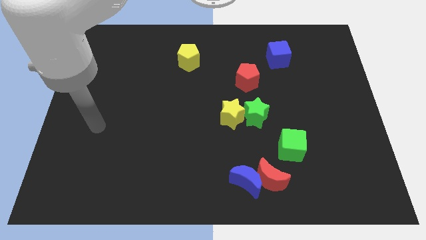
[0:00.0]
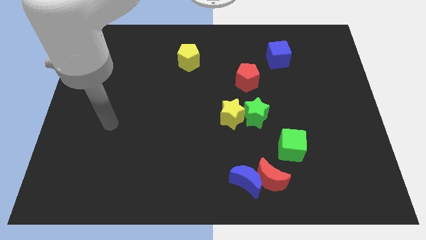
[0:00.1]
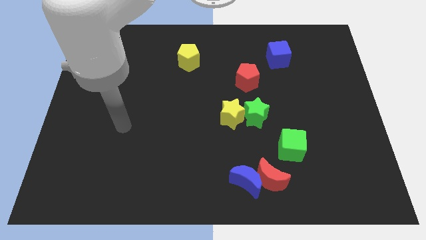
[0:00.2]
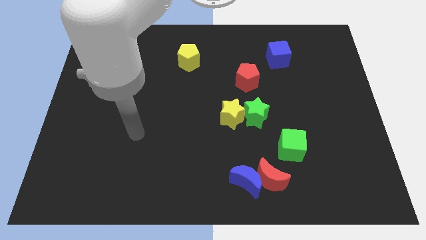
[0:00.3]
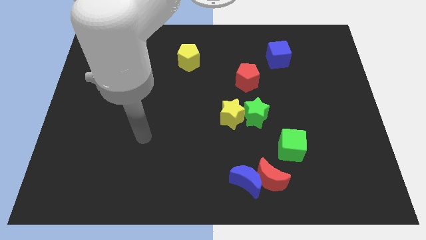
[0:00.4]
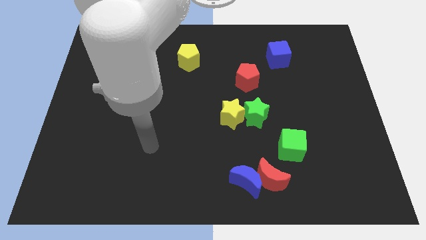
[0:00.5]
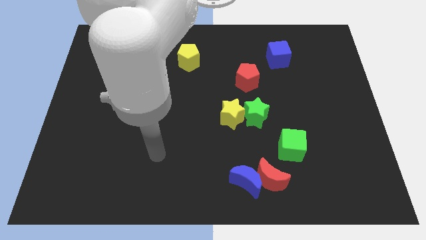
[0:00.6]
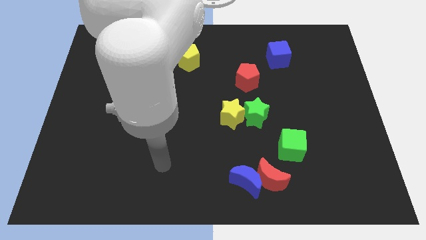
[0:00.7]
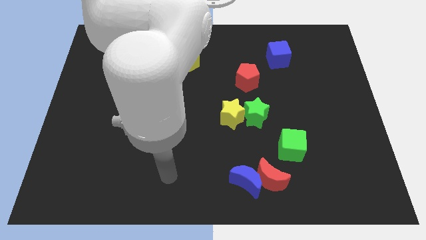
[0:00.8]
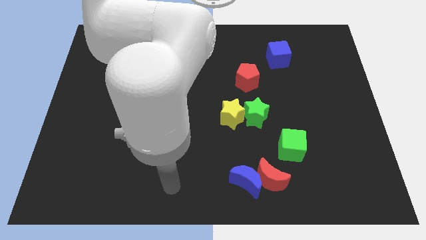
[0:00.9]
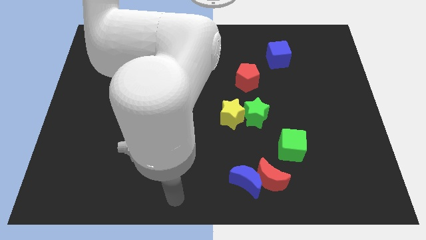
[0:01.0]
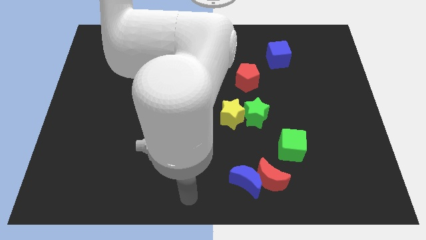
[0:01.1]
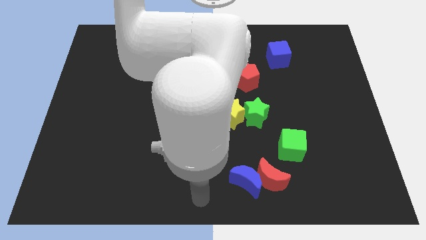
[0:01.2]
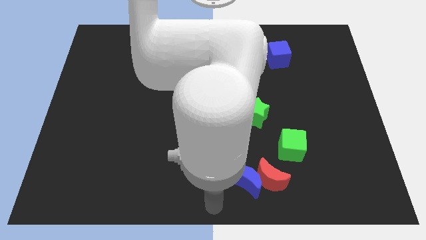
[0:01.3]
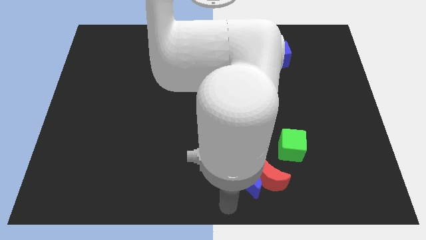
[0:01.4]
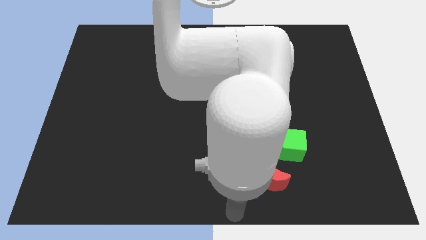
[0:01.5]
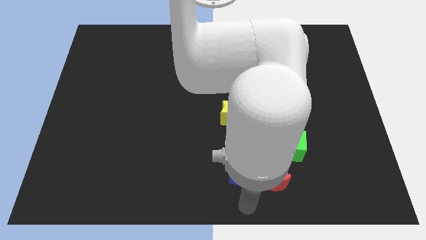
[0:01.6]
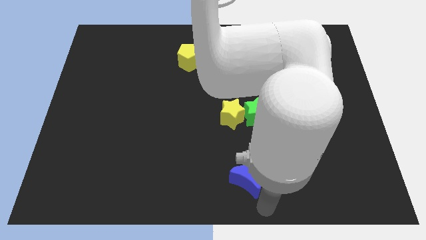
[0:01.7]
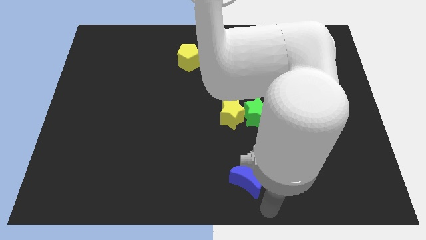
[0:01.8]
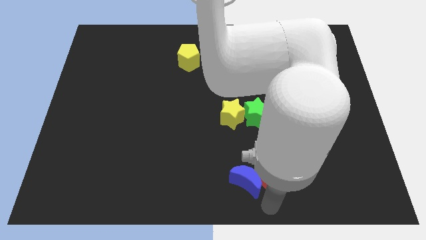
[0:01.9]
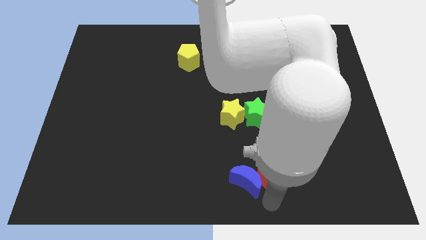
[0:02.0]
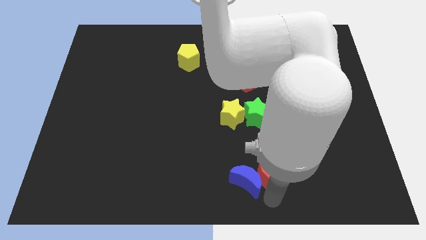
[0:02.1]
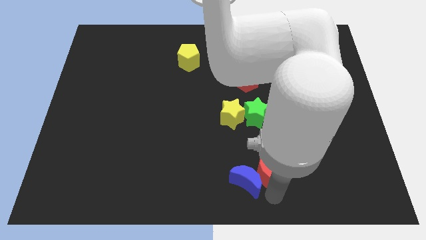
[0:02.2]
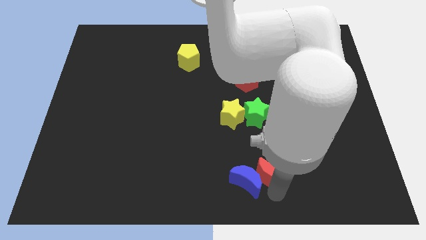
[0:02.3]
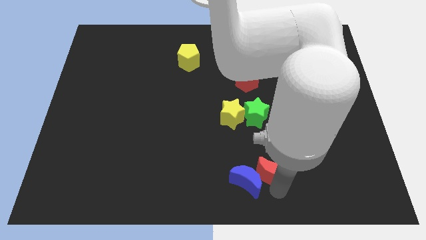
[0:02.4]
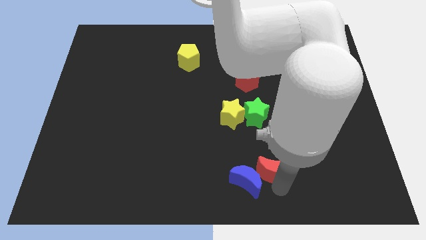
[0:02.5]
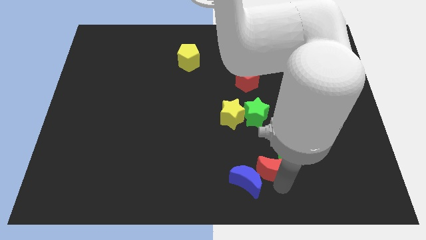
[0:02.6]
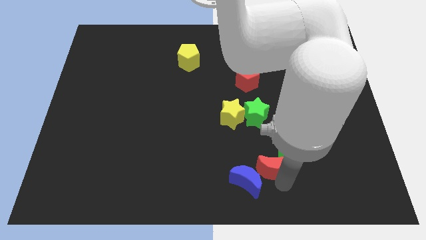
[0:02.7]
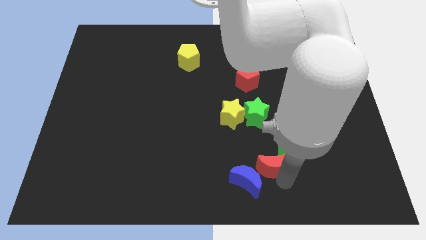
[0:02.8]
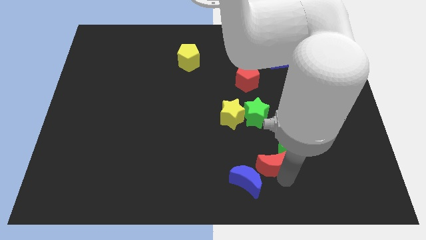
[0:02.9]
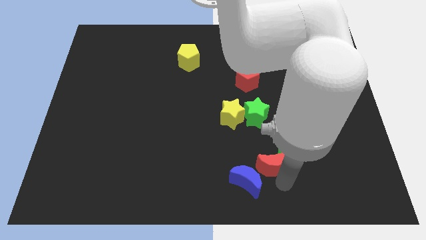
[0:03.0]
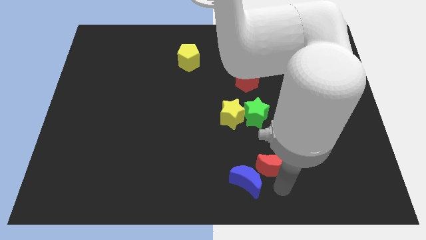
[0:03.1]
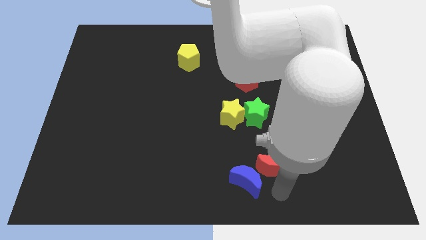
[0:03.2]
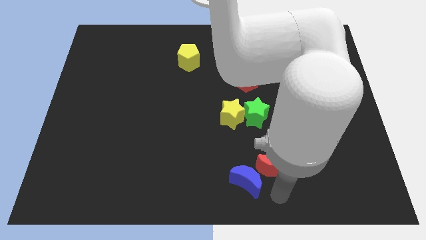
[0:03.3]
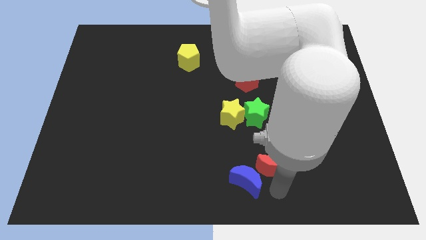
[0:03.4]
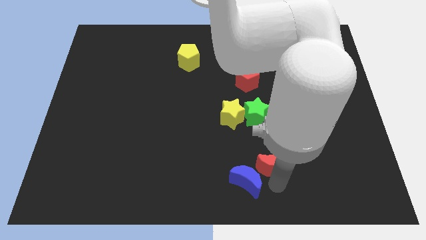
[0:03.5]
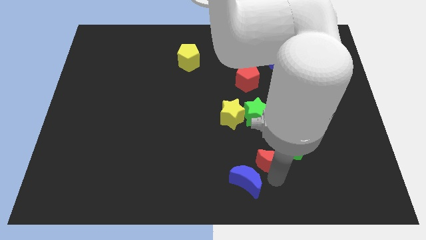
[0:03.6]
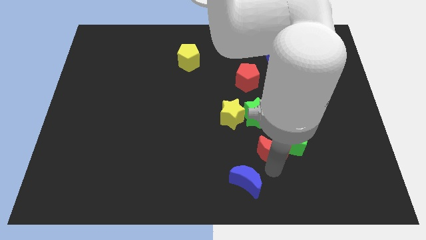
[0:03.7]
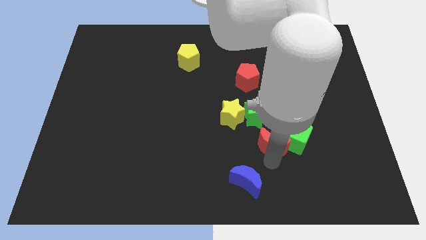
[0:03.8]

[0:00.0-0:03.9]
push the red moon slightly up

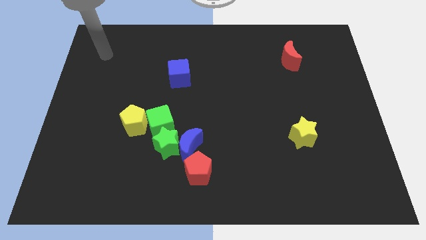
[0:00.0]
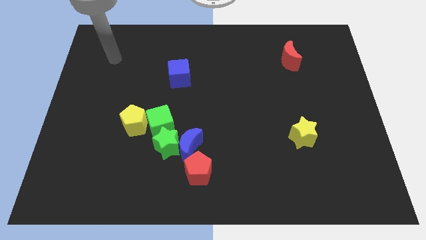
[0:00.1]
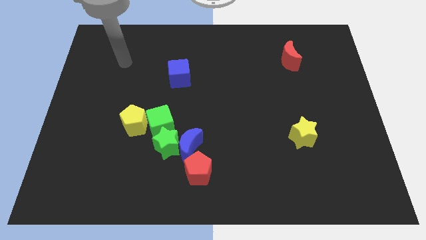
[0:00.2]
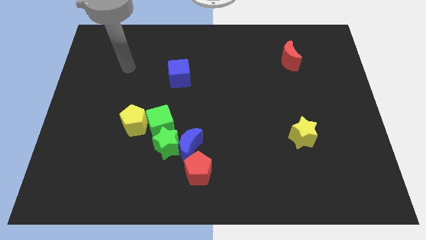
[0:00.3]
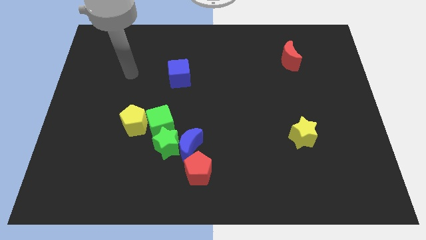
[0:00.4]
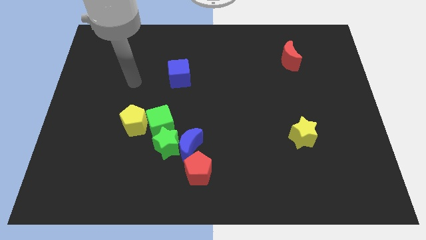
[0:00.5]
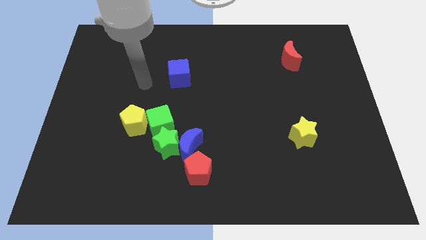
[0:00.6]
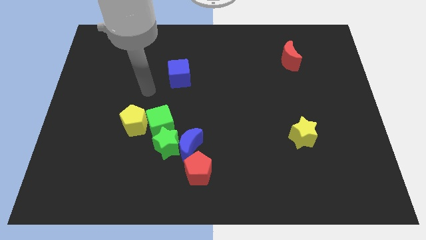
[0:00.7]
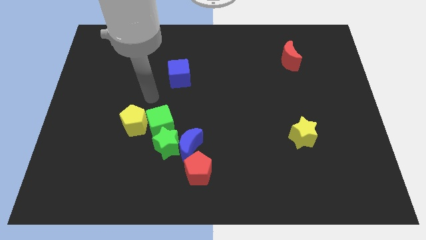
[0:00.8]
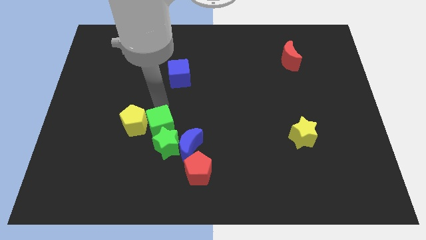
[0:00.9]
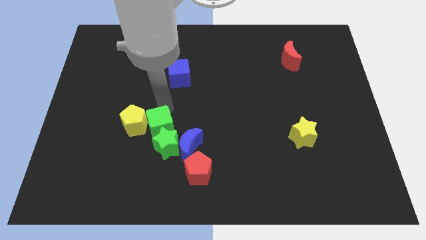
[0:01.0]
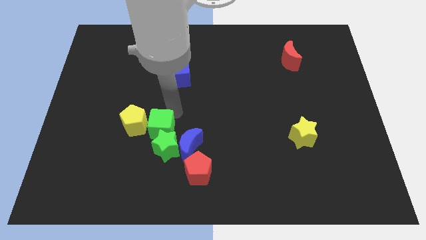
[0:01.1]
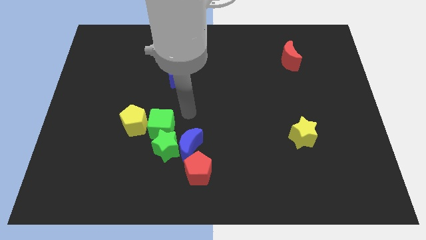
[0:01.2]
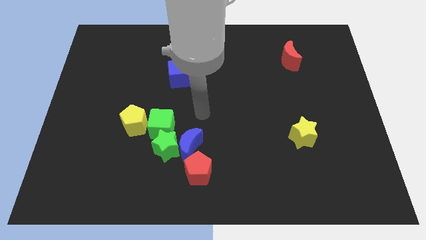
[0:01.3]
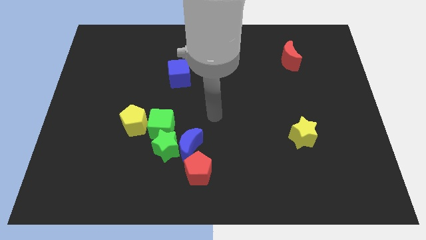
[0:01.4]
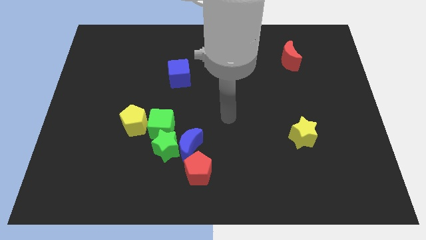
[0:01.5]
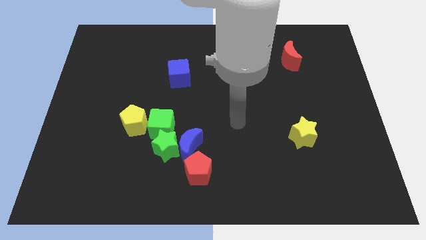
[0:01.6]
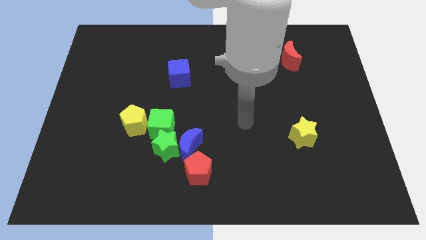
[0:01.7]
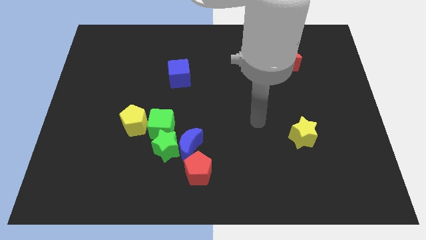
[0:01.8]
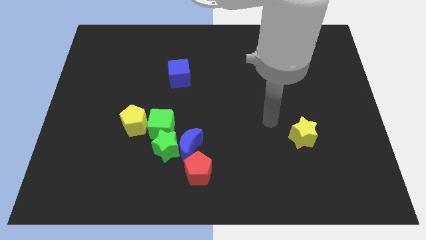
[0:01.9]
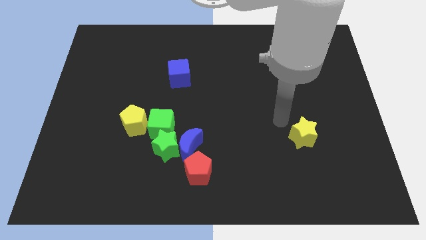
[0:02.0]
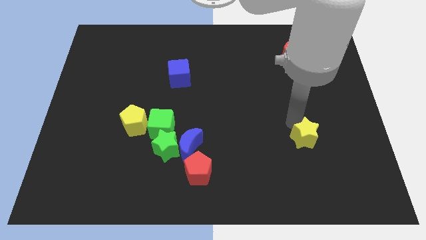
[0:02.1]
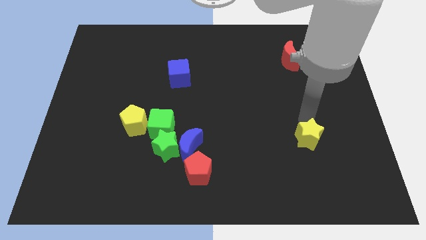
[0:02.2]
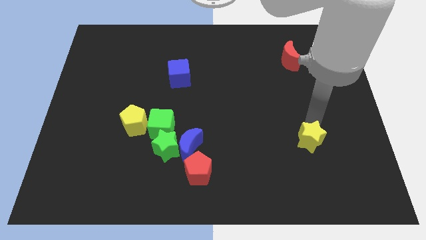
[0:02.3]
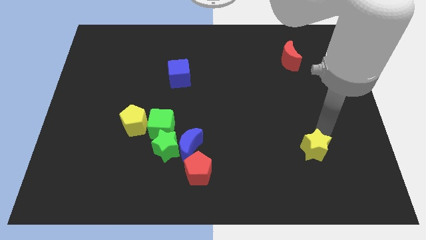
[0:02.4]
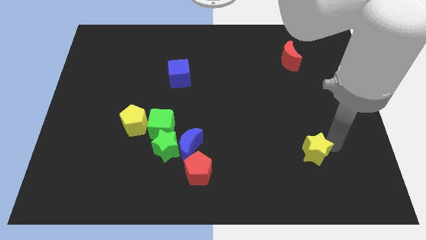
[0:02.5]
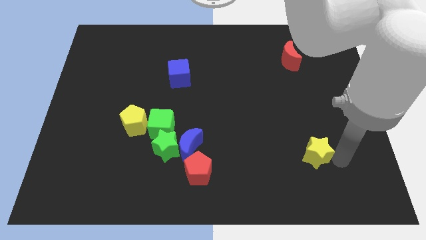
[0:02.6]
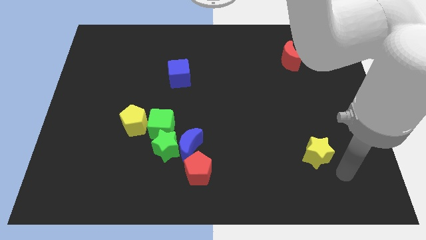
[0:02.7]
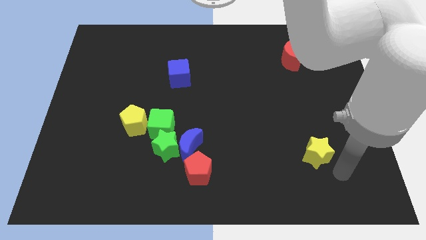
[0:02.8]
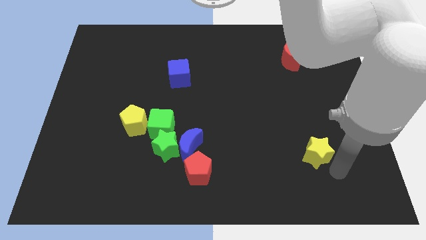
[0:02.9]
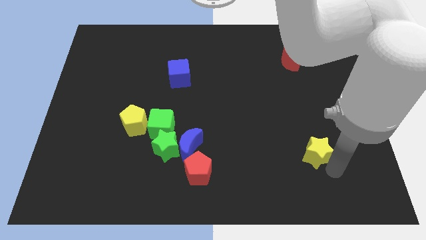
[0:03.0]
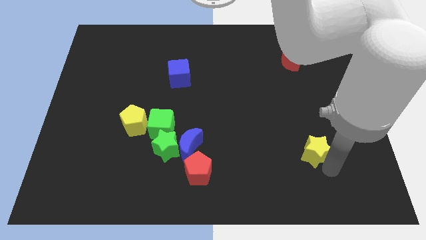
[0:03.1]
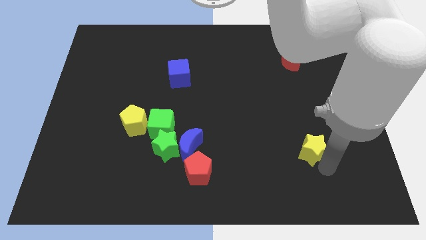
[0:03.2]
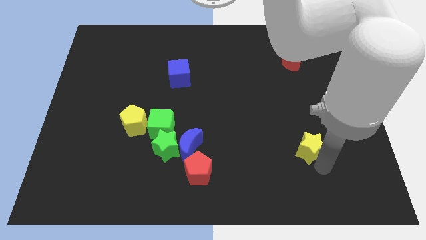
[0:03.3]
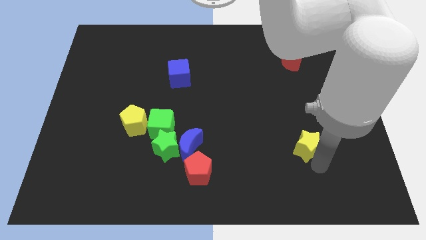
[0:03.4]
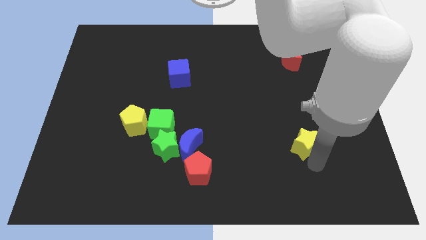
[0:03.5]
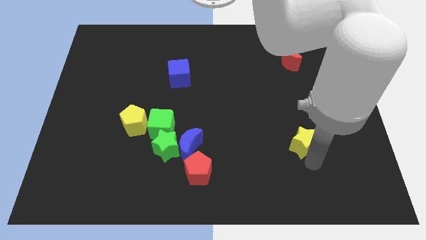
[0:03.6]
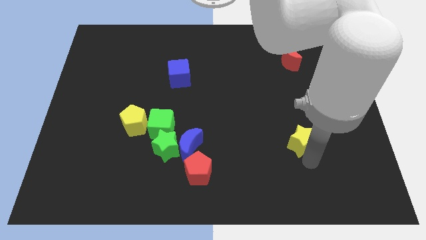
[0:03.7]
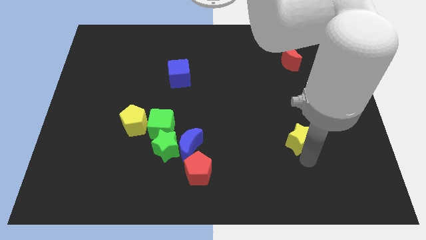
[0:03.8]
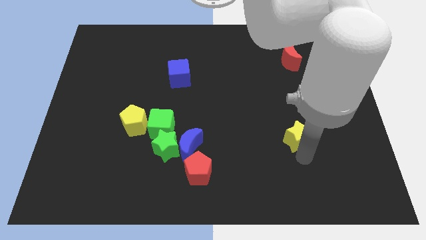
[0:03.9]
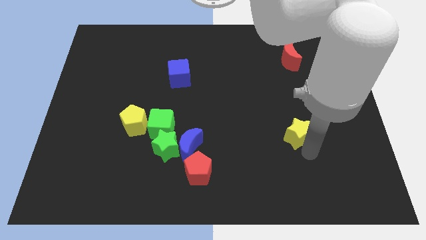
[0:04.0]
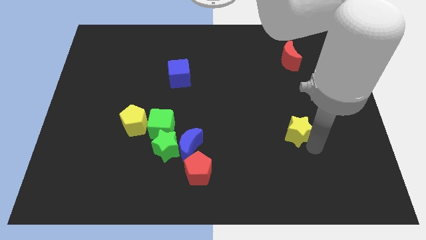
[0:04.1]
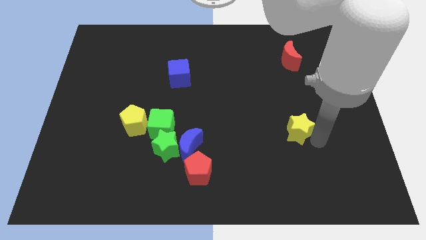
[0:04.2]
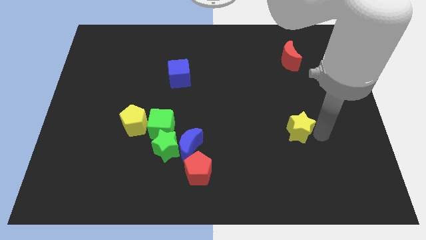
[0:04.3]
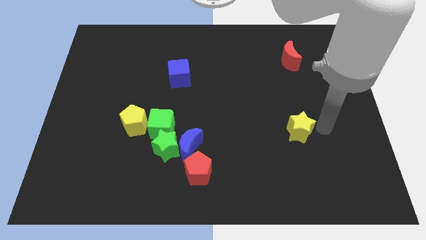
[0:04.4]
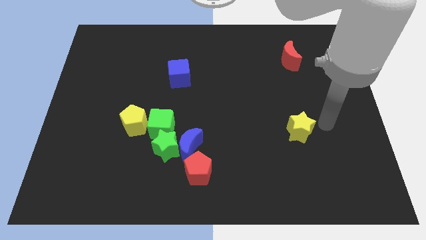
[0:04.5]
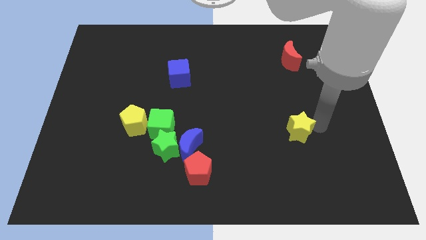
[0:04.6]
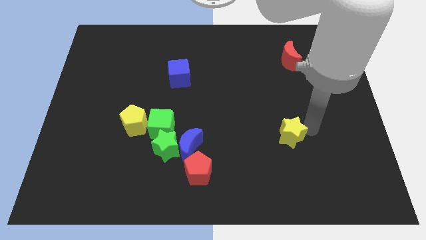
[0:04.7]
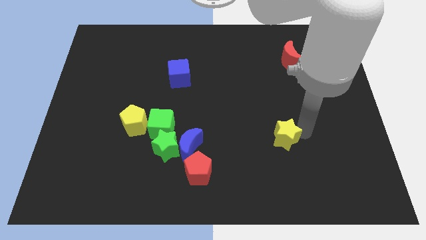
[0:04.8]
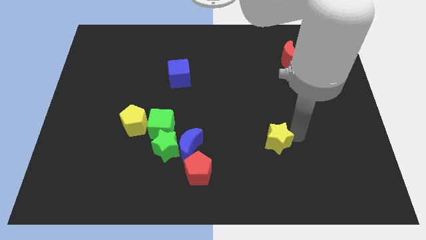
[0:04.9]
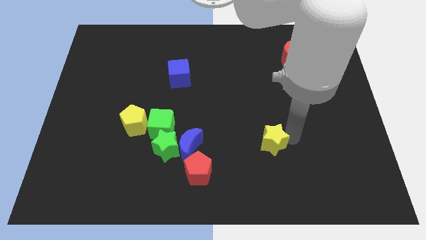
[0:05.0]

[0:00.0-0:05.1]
move the yellow star a bit to the left
